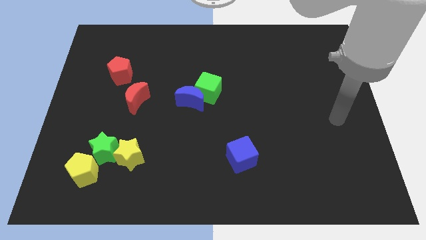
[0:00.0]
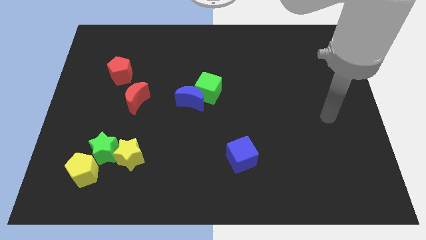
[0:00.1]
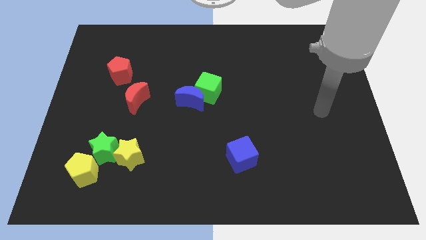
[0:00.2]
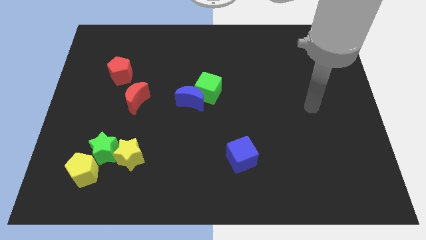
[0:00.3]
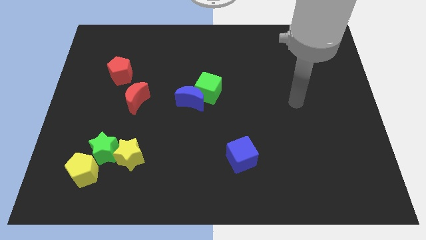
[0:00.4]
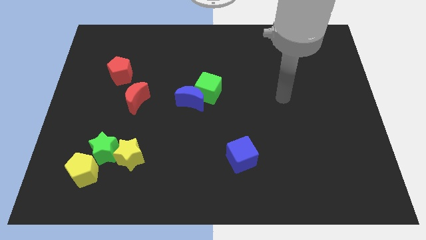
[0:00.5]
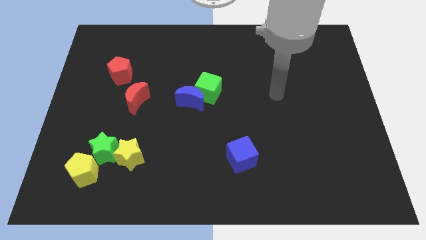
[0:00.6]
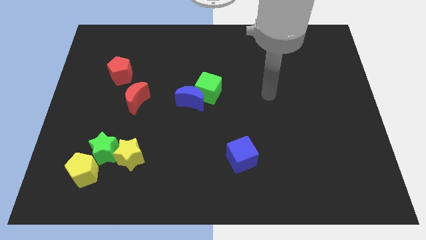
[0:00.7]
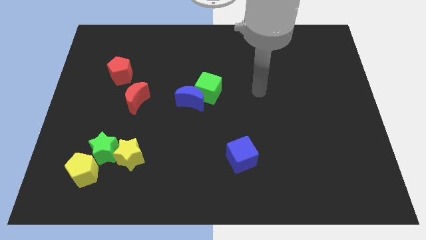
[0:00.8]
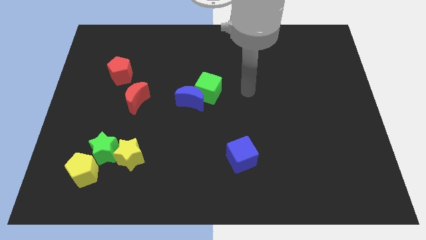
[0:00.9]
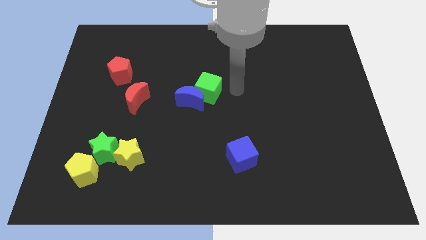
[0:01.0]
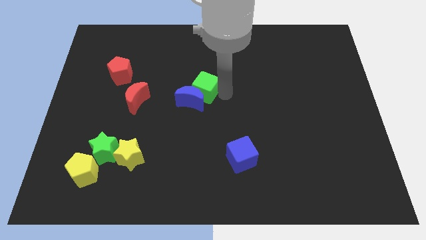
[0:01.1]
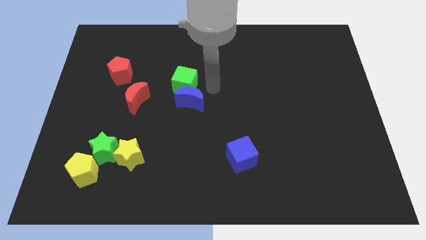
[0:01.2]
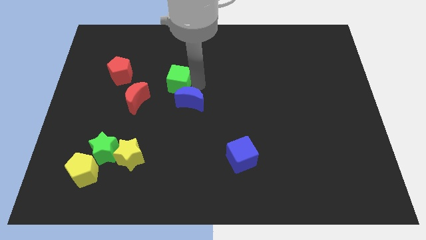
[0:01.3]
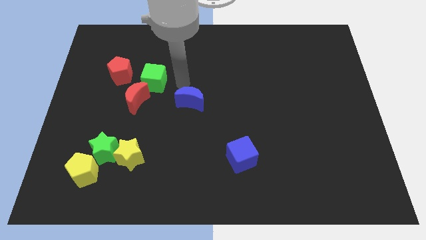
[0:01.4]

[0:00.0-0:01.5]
separate the blue moon from the green cube

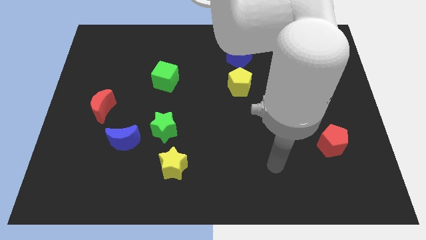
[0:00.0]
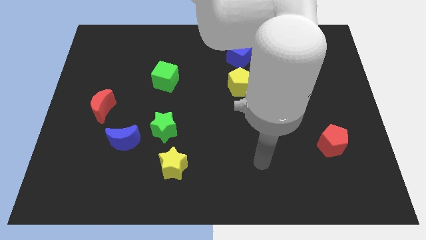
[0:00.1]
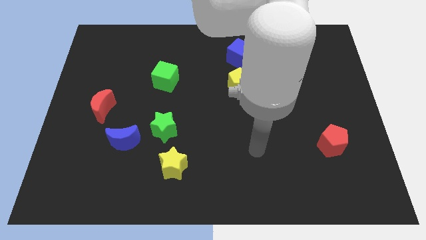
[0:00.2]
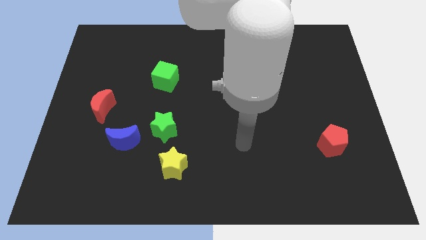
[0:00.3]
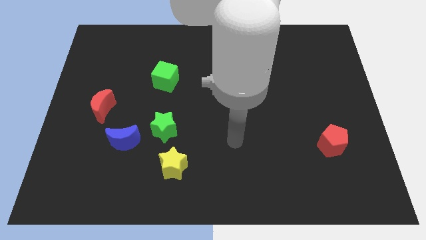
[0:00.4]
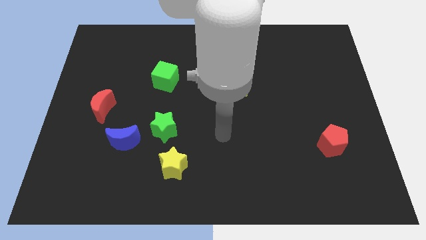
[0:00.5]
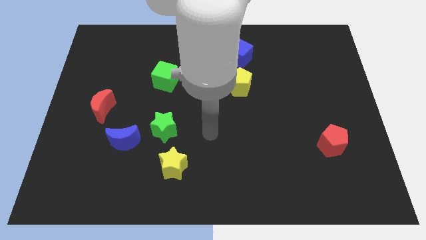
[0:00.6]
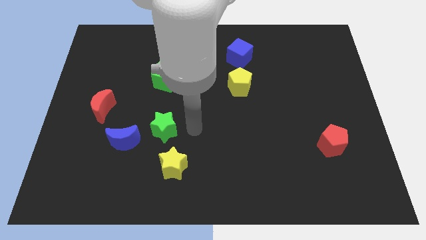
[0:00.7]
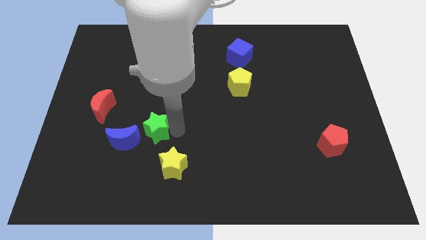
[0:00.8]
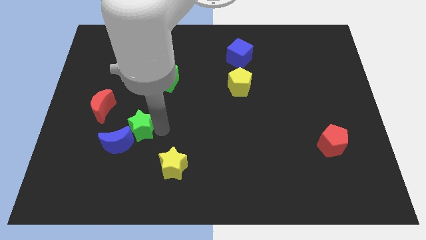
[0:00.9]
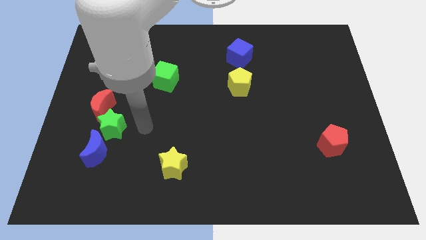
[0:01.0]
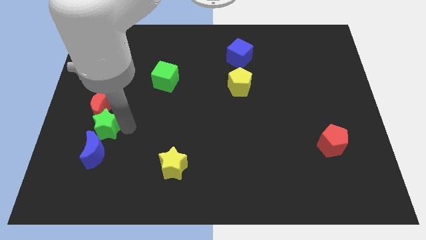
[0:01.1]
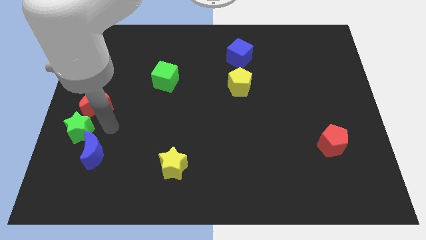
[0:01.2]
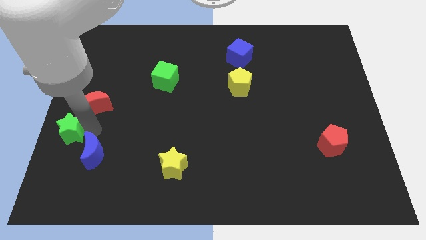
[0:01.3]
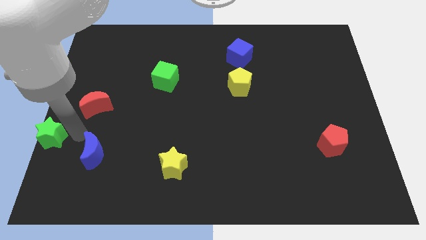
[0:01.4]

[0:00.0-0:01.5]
separate the blue moon from the green star

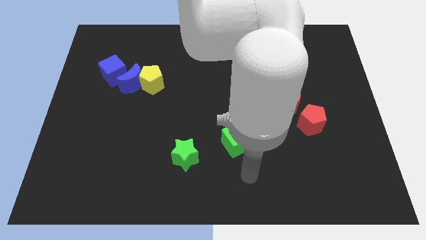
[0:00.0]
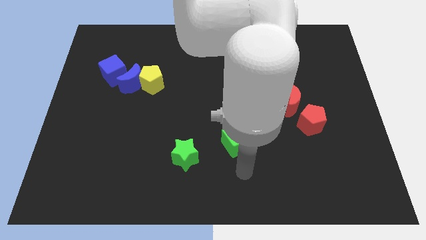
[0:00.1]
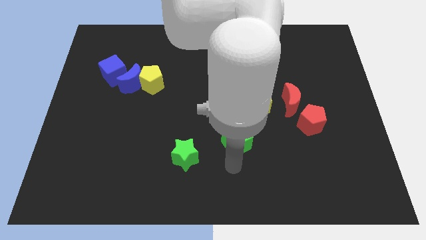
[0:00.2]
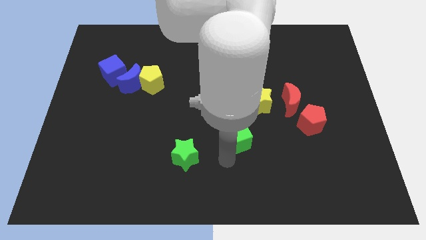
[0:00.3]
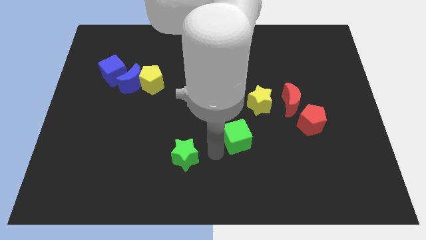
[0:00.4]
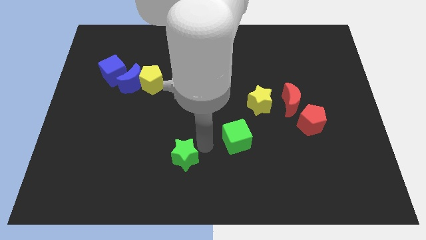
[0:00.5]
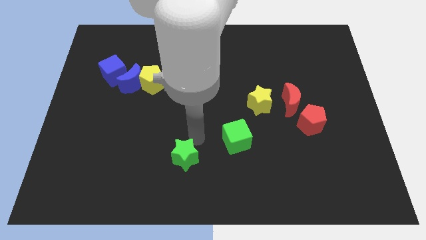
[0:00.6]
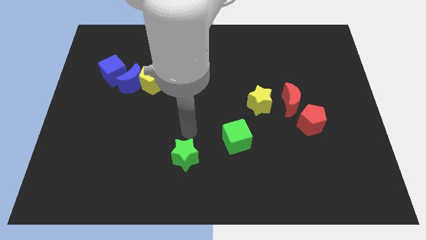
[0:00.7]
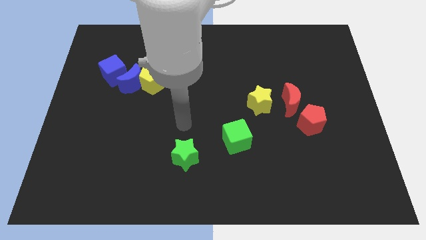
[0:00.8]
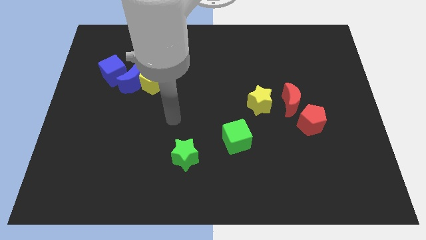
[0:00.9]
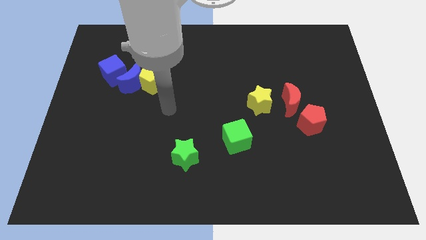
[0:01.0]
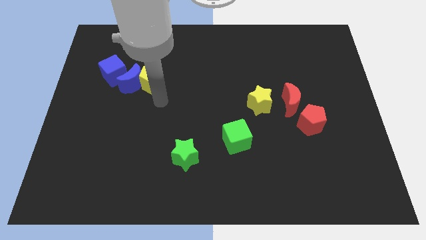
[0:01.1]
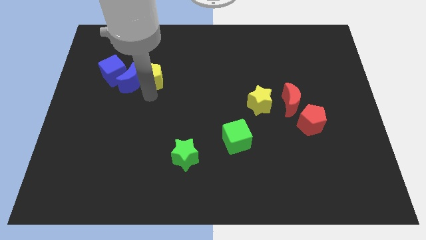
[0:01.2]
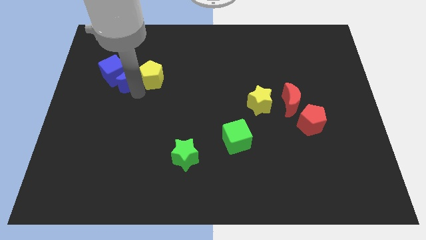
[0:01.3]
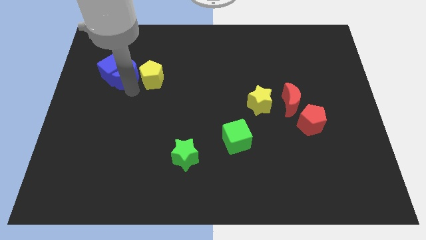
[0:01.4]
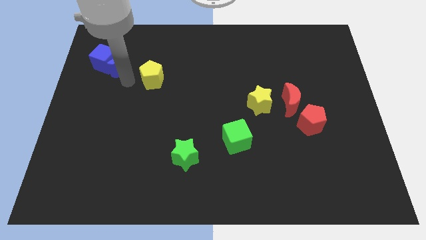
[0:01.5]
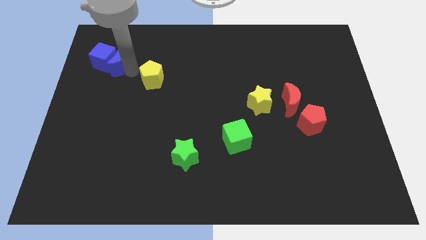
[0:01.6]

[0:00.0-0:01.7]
move the yellow pentagon away from the blue moon

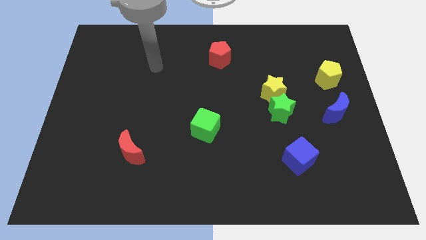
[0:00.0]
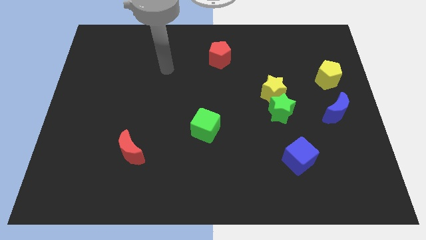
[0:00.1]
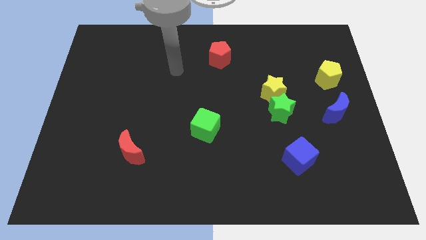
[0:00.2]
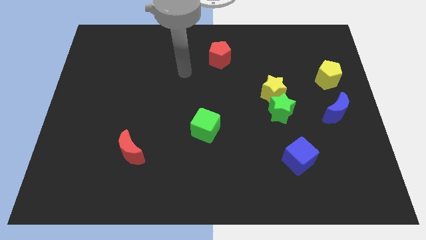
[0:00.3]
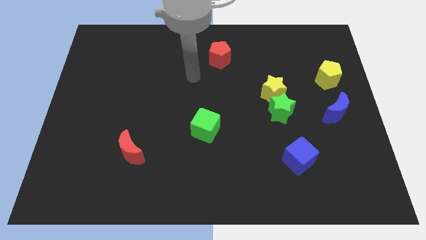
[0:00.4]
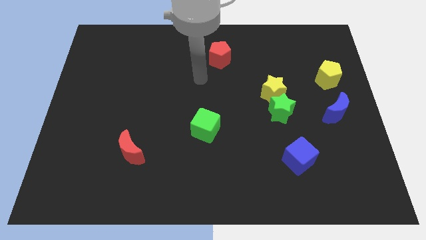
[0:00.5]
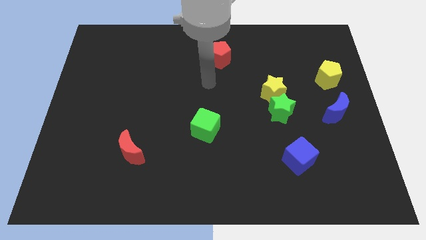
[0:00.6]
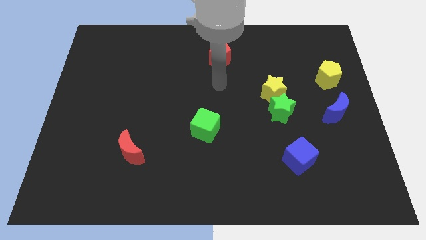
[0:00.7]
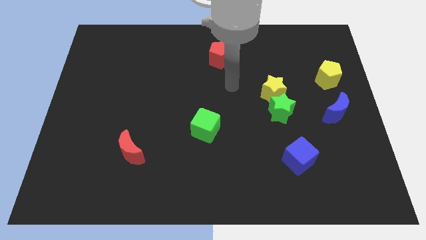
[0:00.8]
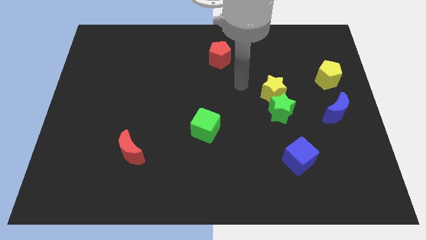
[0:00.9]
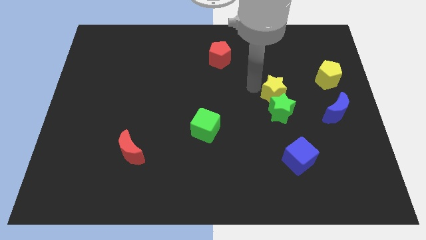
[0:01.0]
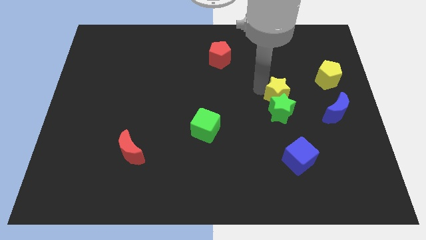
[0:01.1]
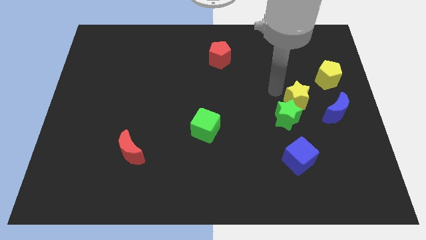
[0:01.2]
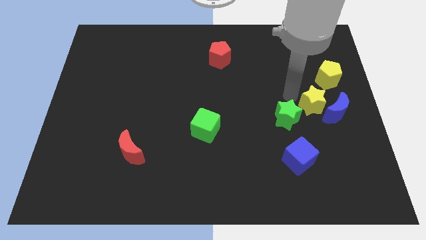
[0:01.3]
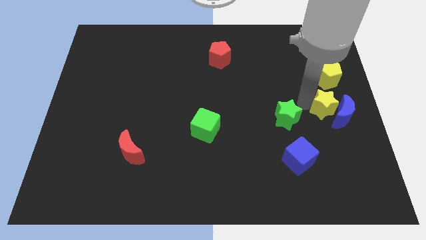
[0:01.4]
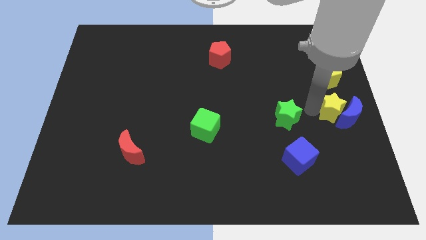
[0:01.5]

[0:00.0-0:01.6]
move the green star away from the yellow star

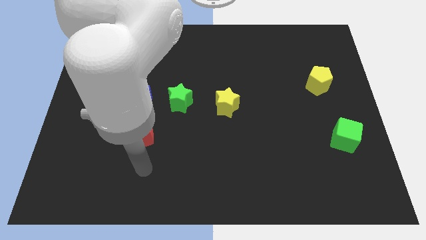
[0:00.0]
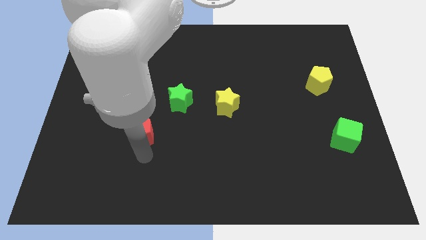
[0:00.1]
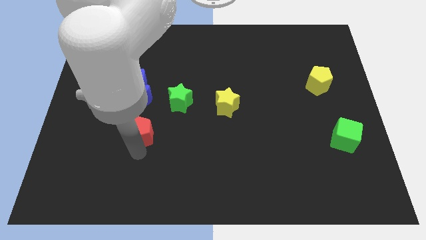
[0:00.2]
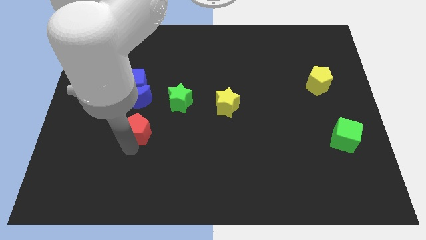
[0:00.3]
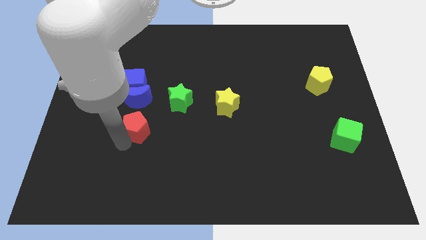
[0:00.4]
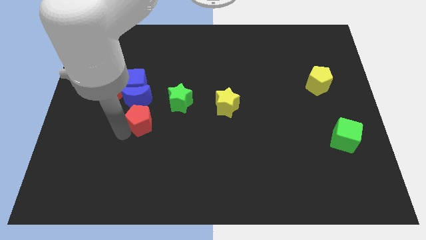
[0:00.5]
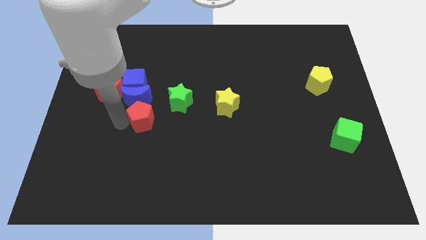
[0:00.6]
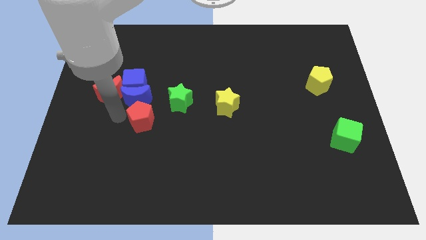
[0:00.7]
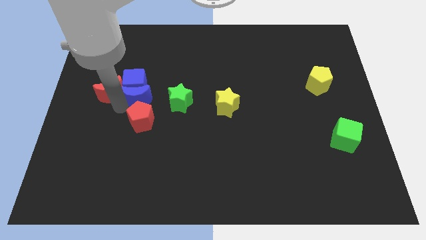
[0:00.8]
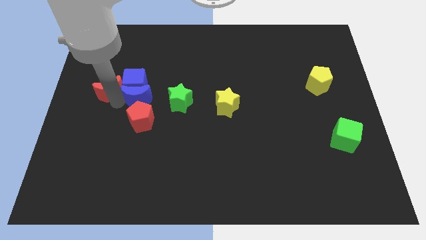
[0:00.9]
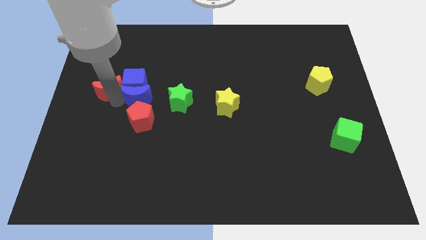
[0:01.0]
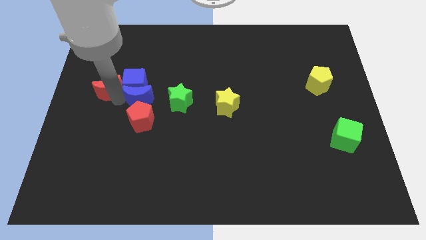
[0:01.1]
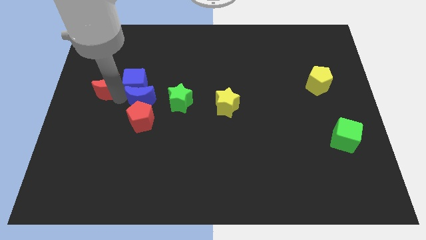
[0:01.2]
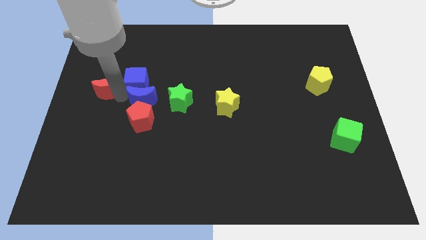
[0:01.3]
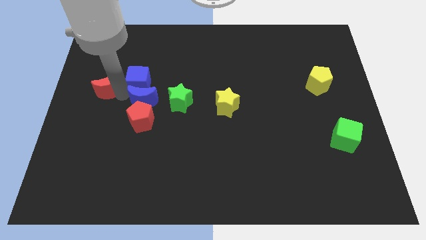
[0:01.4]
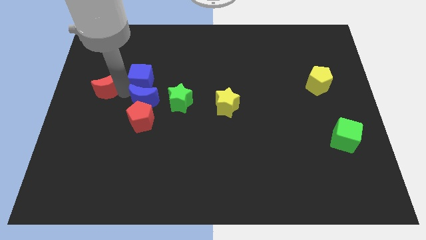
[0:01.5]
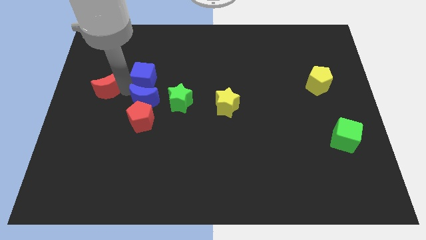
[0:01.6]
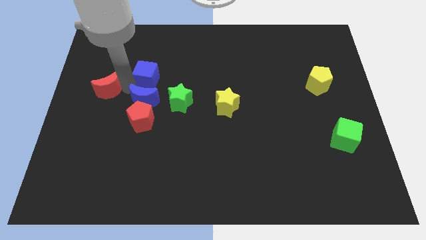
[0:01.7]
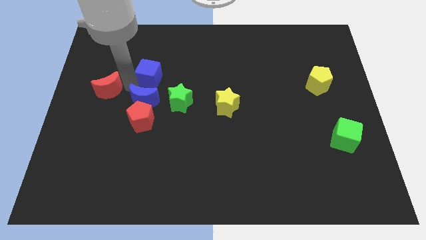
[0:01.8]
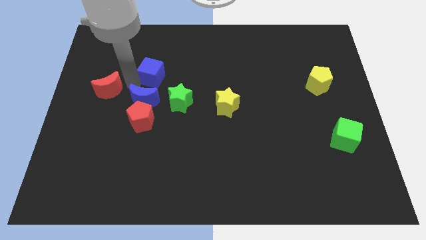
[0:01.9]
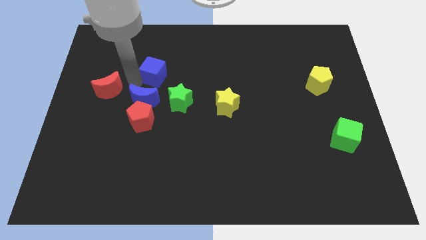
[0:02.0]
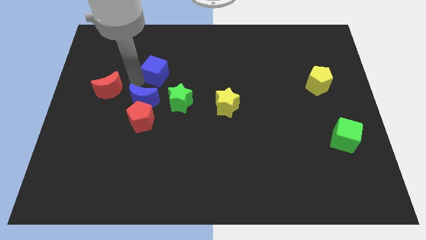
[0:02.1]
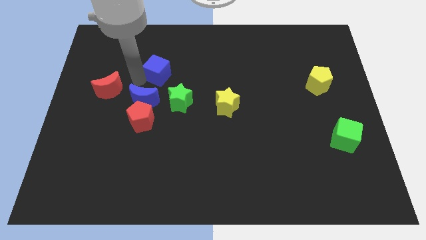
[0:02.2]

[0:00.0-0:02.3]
move the blue cube away from the blue moon and red moon

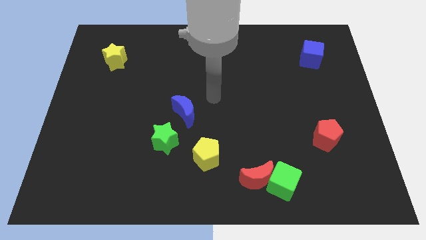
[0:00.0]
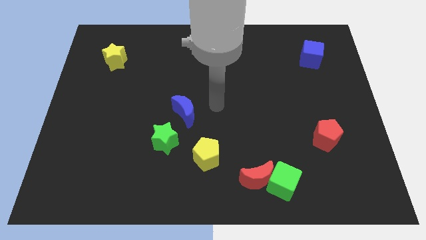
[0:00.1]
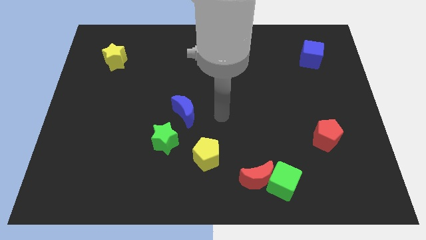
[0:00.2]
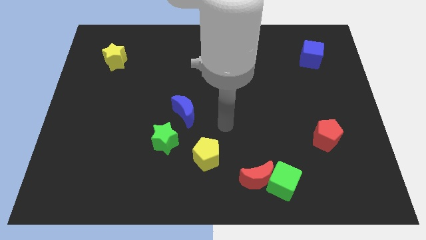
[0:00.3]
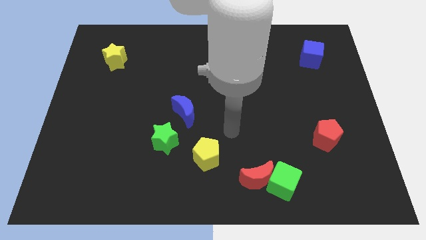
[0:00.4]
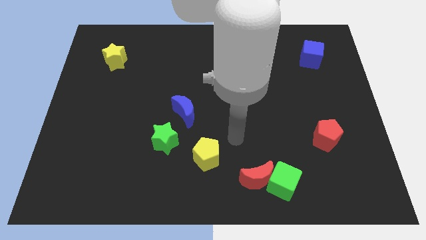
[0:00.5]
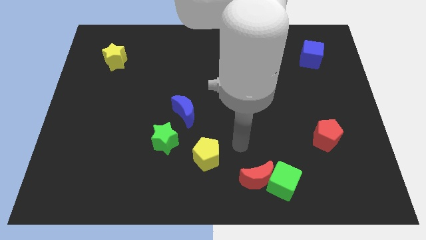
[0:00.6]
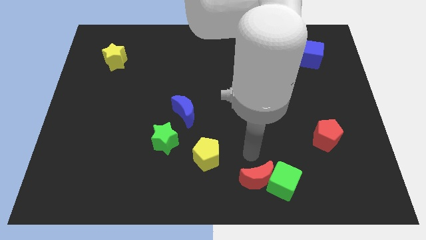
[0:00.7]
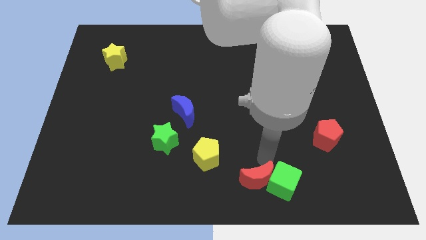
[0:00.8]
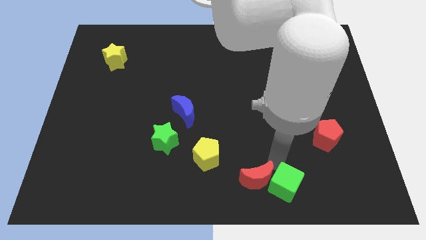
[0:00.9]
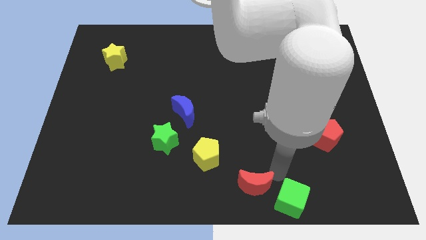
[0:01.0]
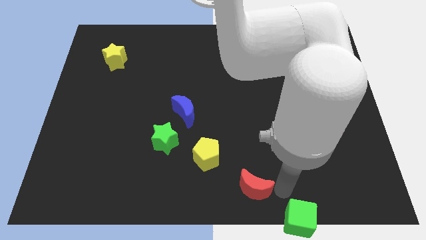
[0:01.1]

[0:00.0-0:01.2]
move the red moon away from the green cube
